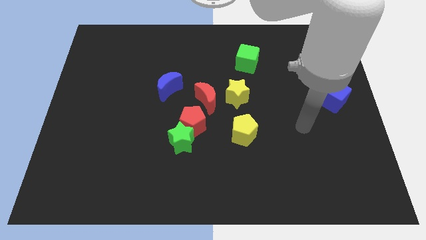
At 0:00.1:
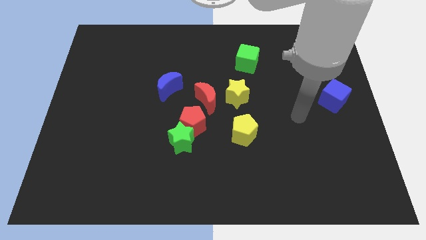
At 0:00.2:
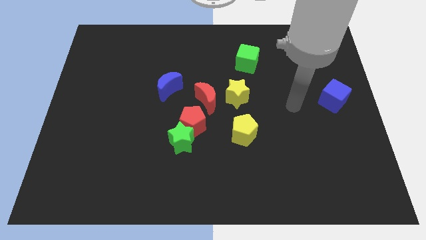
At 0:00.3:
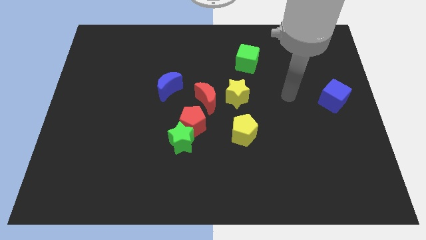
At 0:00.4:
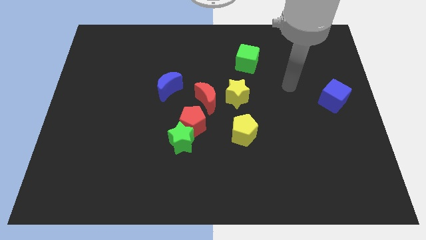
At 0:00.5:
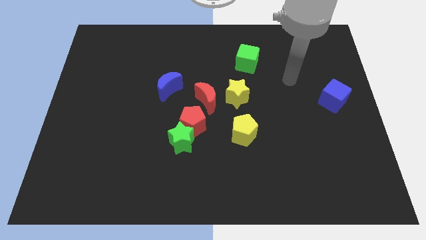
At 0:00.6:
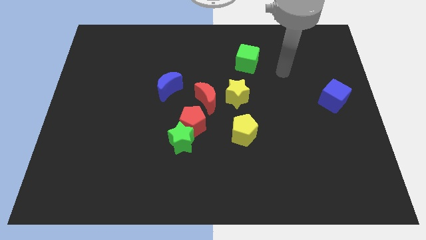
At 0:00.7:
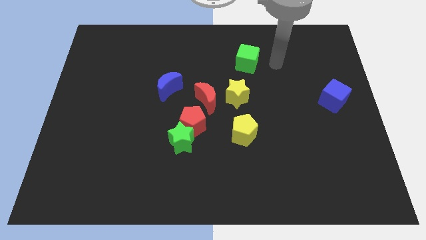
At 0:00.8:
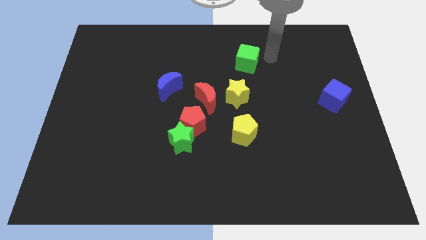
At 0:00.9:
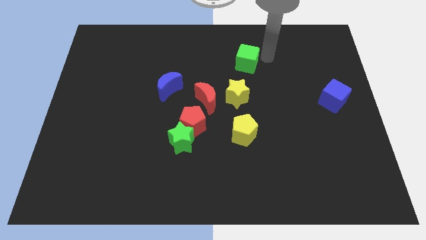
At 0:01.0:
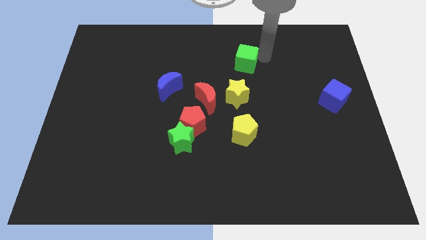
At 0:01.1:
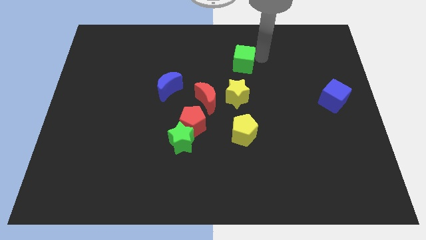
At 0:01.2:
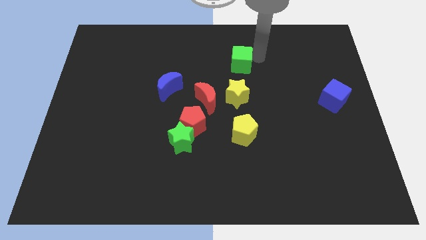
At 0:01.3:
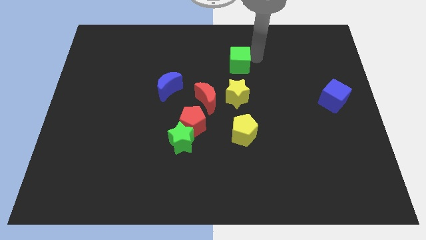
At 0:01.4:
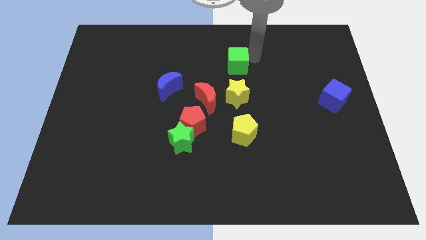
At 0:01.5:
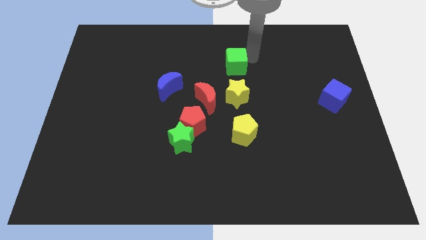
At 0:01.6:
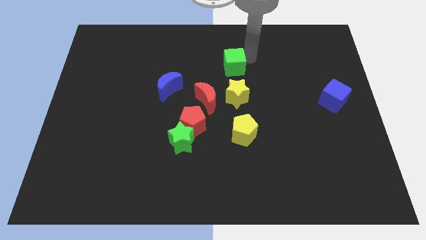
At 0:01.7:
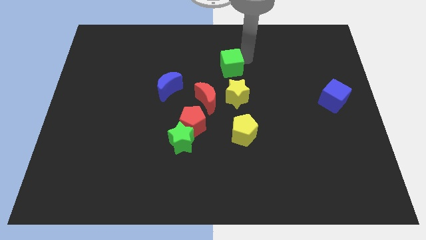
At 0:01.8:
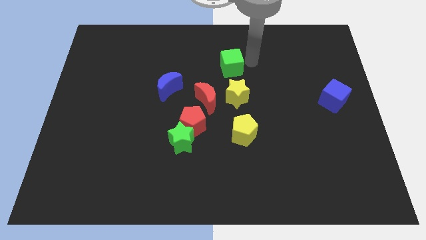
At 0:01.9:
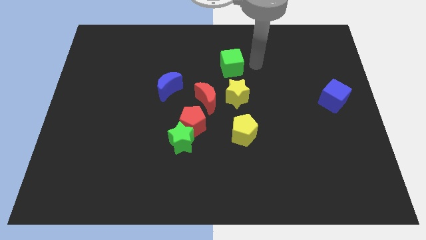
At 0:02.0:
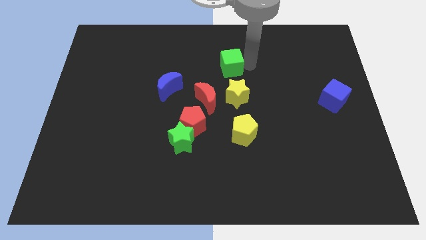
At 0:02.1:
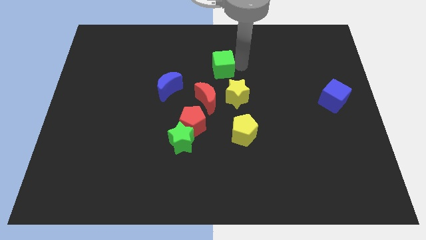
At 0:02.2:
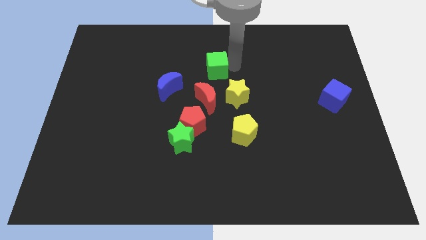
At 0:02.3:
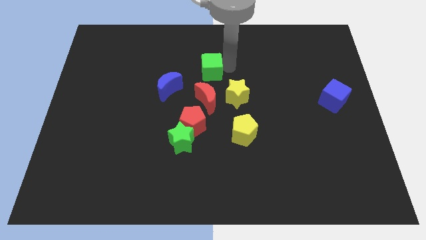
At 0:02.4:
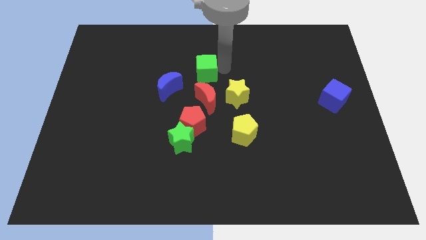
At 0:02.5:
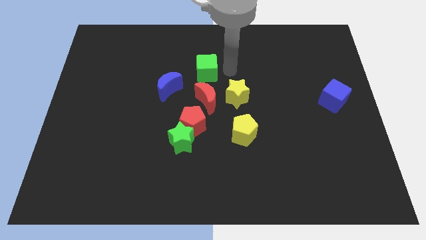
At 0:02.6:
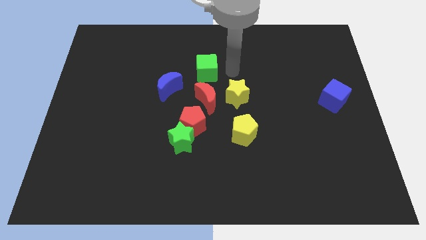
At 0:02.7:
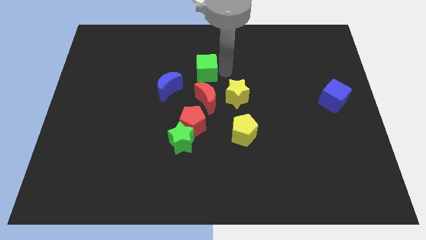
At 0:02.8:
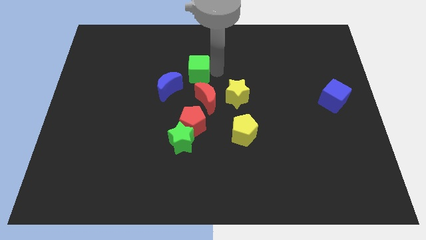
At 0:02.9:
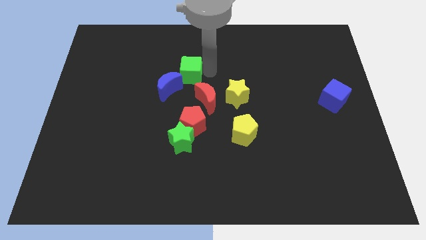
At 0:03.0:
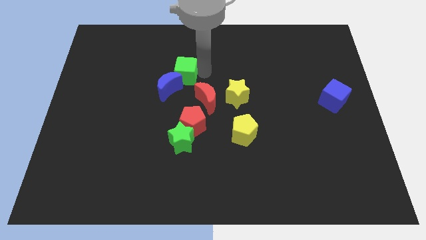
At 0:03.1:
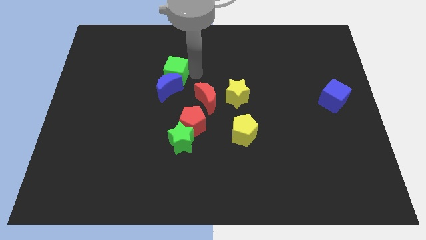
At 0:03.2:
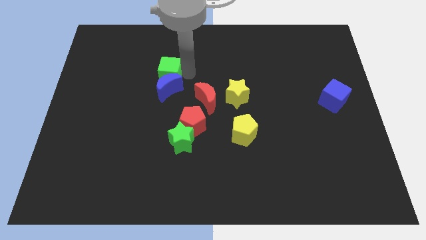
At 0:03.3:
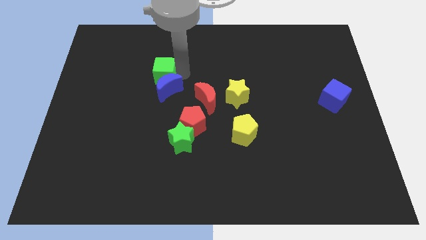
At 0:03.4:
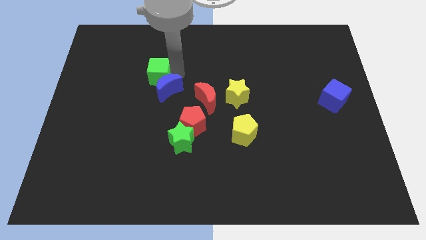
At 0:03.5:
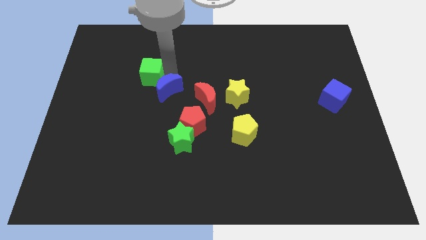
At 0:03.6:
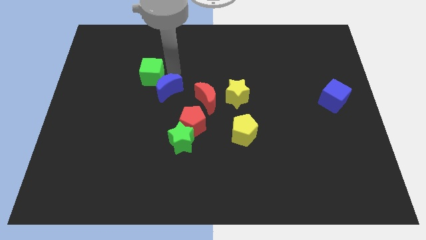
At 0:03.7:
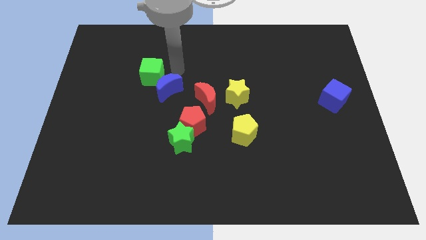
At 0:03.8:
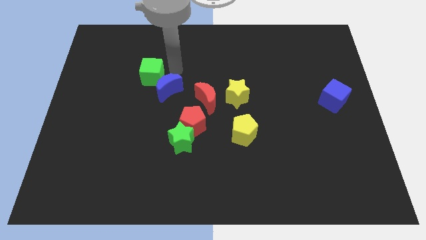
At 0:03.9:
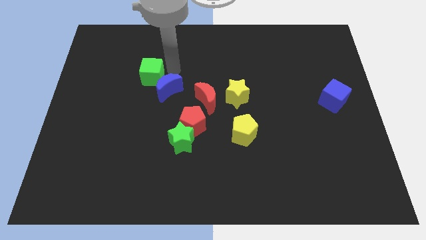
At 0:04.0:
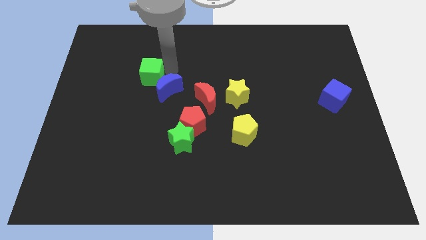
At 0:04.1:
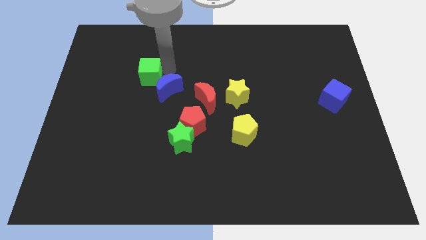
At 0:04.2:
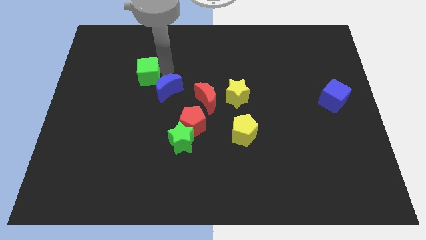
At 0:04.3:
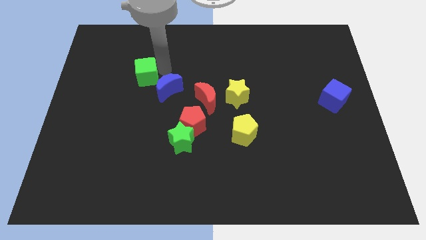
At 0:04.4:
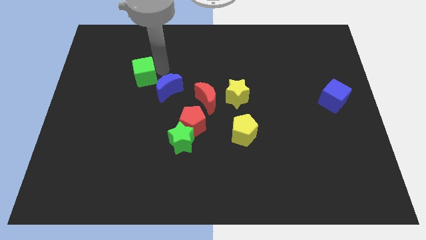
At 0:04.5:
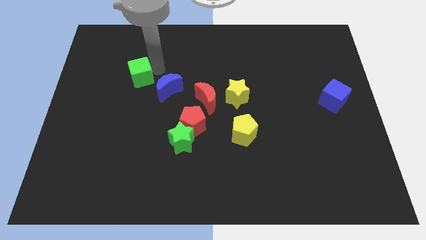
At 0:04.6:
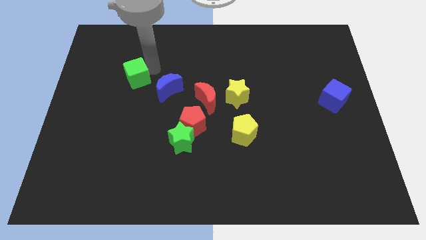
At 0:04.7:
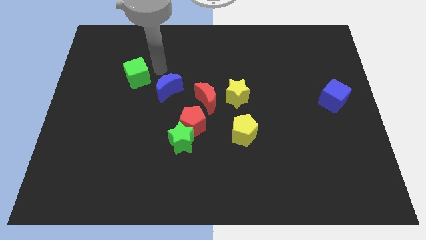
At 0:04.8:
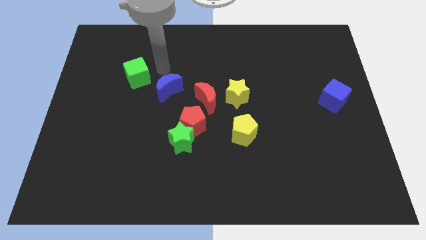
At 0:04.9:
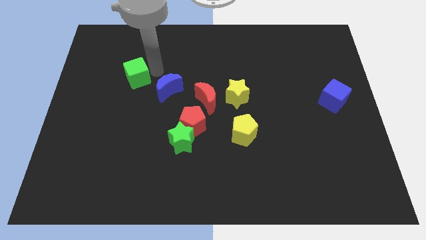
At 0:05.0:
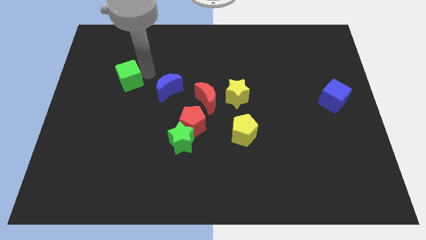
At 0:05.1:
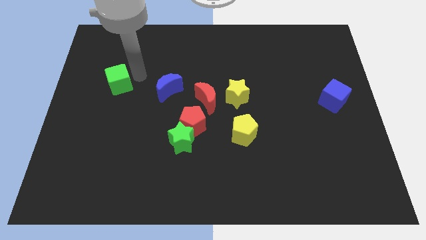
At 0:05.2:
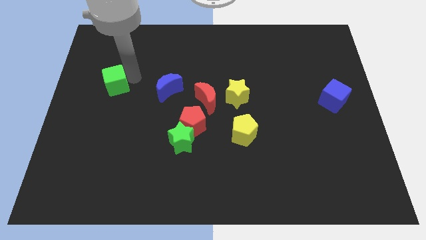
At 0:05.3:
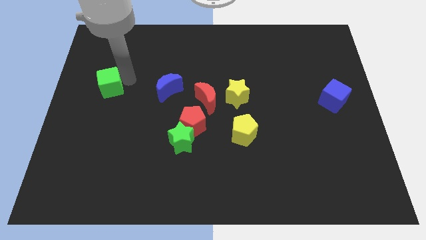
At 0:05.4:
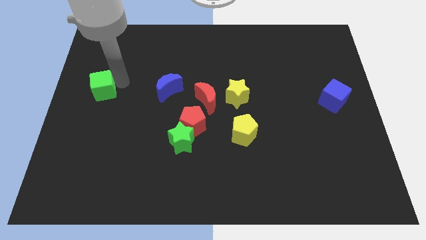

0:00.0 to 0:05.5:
put the green cube to the left side of the board

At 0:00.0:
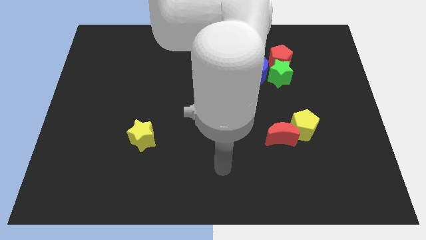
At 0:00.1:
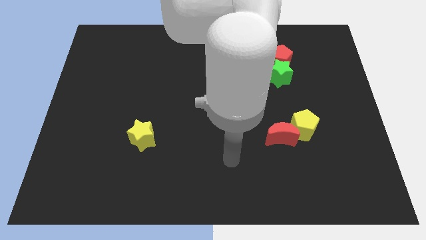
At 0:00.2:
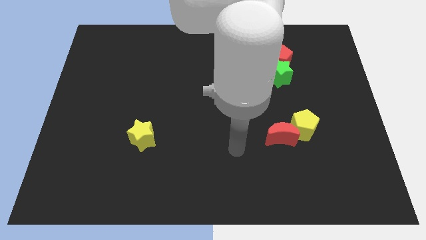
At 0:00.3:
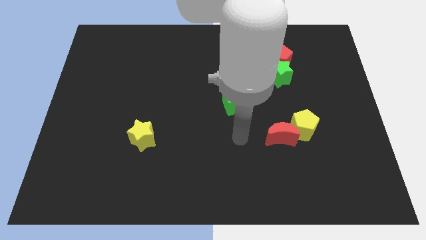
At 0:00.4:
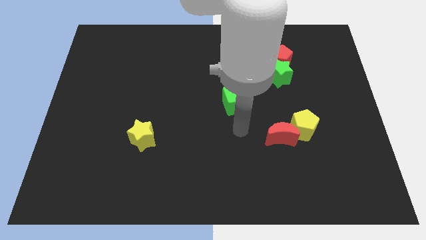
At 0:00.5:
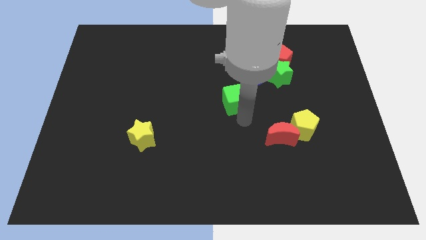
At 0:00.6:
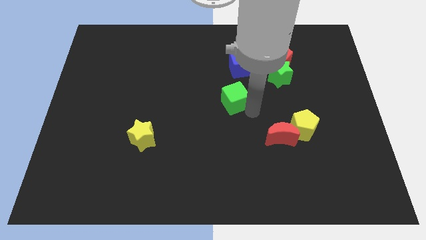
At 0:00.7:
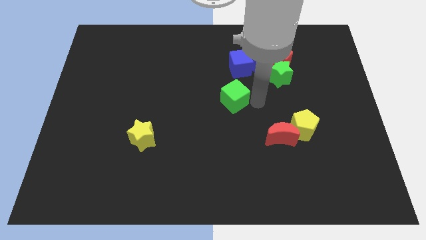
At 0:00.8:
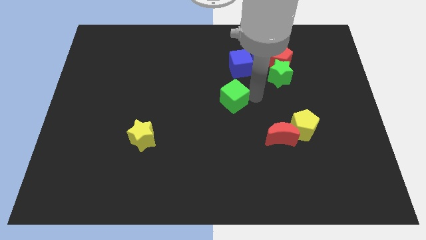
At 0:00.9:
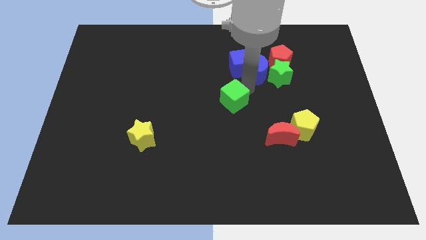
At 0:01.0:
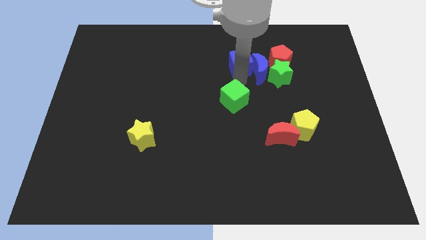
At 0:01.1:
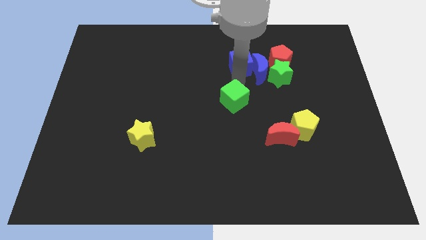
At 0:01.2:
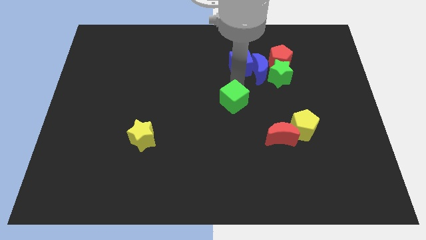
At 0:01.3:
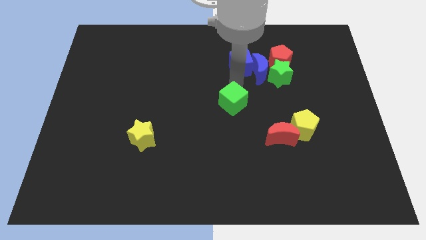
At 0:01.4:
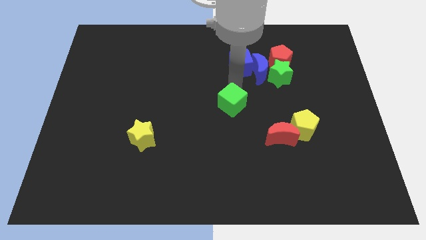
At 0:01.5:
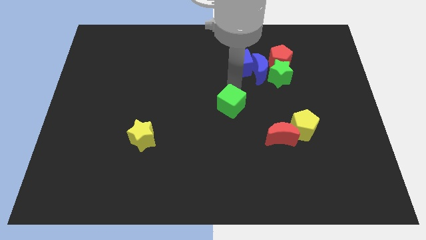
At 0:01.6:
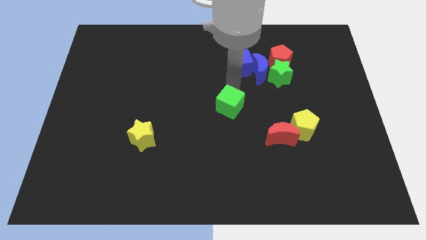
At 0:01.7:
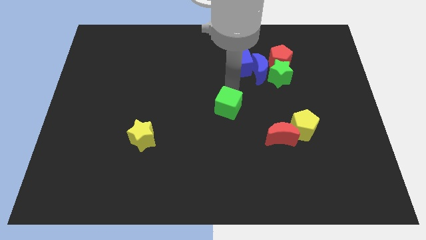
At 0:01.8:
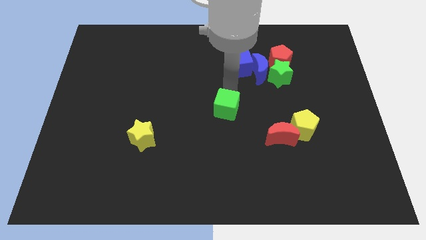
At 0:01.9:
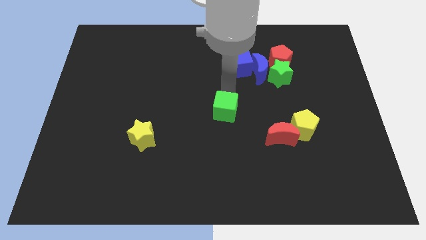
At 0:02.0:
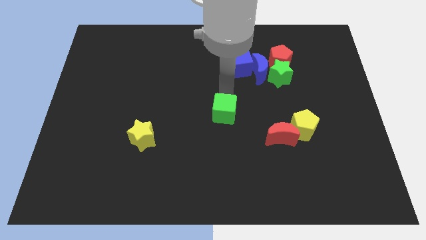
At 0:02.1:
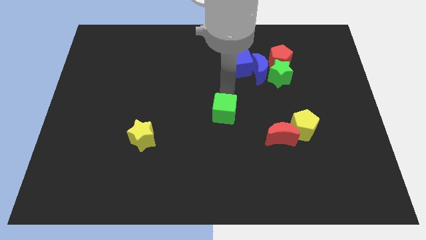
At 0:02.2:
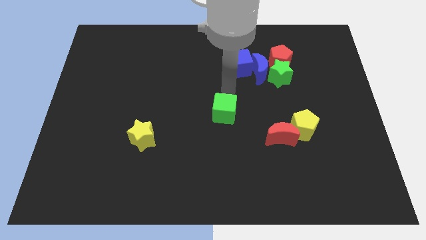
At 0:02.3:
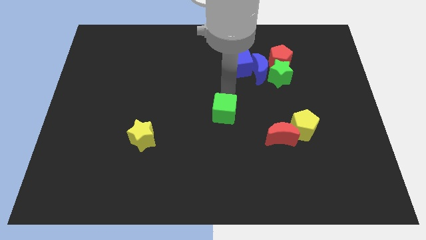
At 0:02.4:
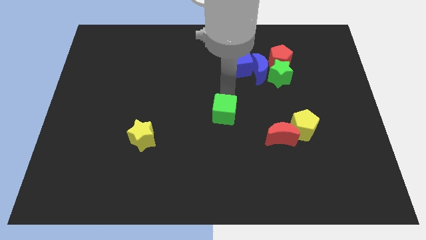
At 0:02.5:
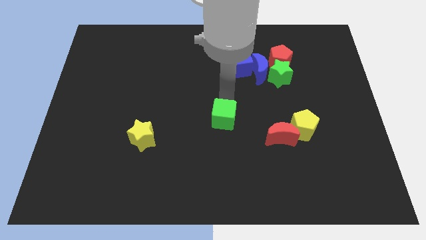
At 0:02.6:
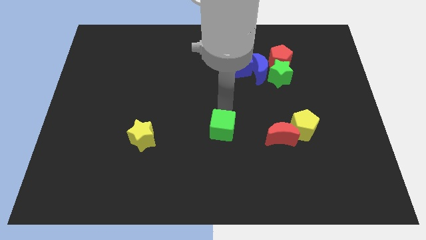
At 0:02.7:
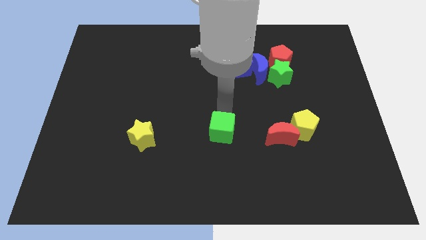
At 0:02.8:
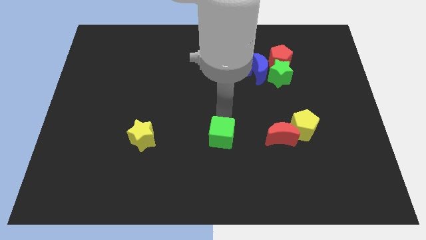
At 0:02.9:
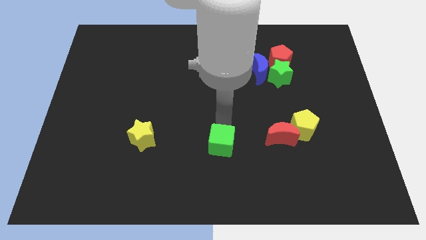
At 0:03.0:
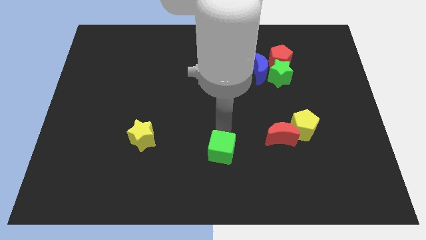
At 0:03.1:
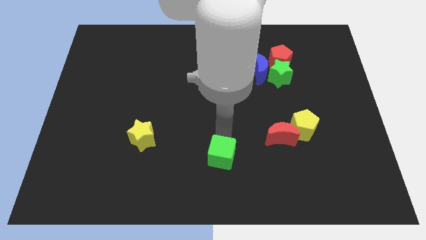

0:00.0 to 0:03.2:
put the green cube to the bottom
